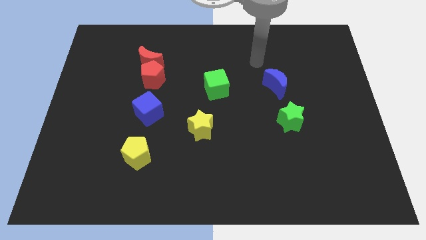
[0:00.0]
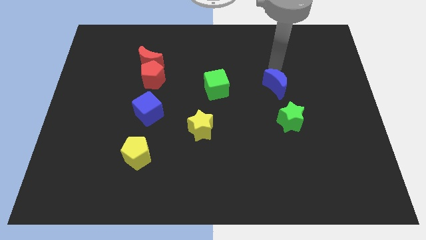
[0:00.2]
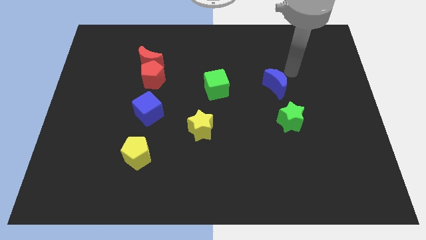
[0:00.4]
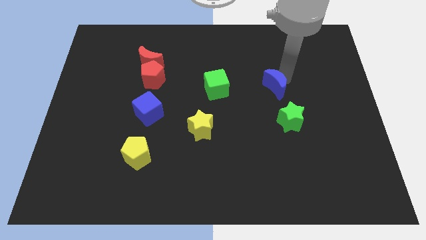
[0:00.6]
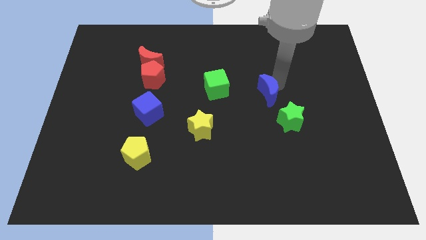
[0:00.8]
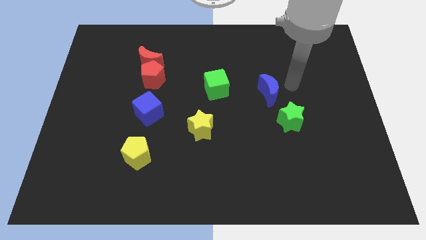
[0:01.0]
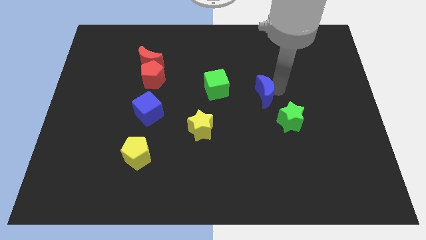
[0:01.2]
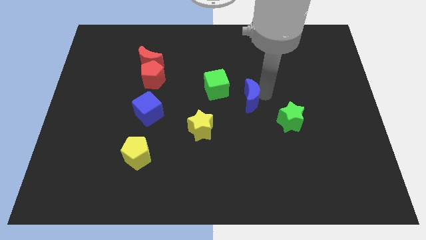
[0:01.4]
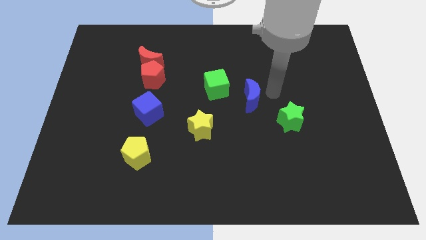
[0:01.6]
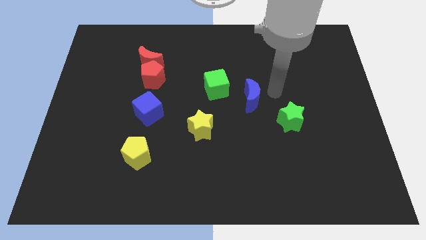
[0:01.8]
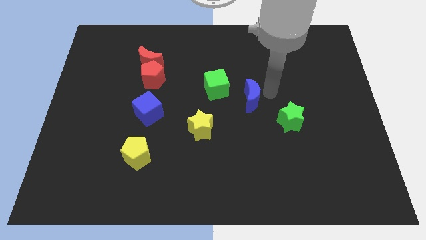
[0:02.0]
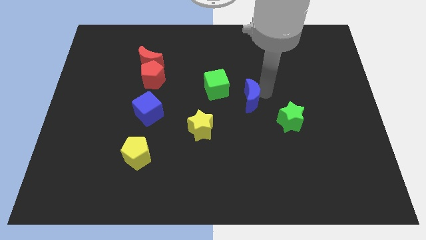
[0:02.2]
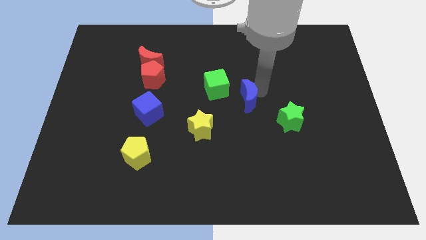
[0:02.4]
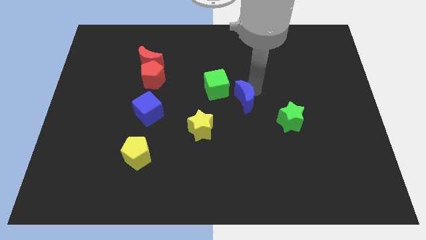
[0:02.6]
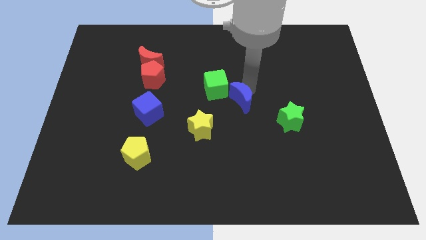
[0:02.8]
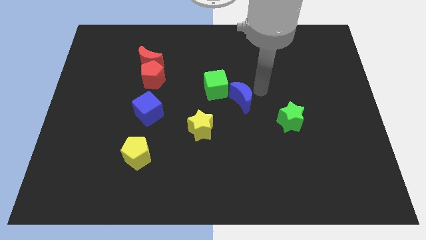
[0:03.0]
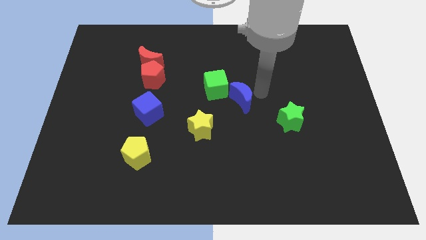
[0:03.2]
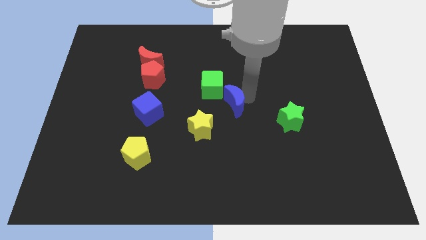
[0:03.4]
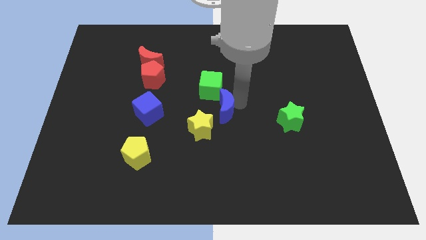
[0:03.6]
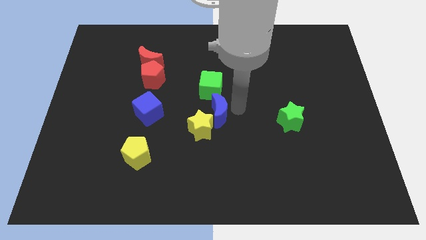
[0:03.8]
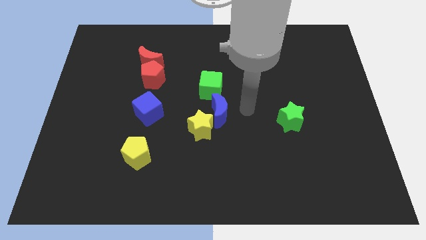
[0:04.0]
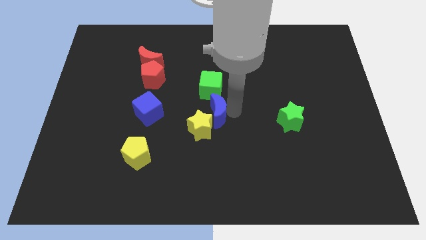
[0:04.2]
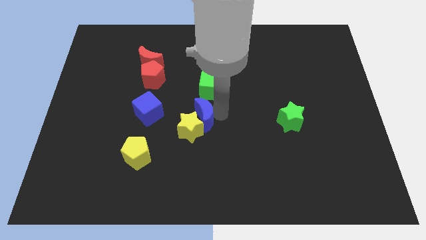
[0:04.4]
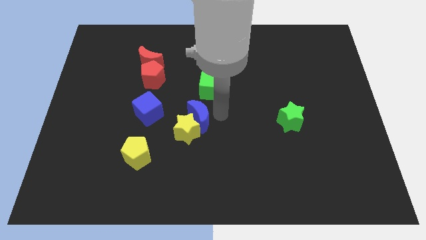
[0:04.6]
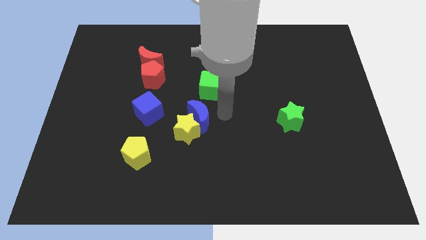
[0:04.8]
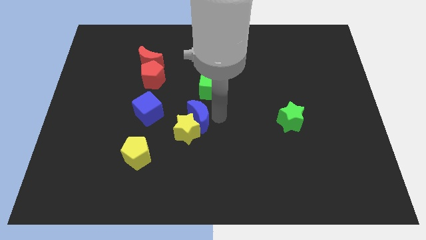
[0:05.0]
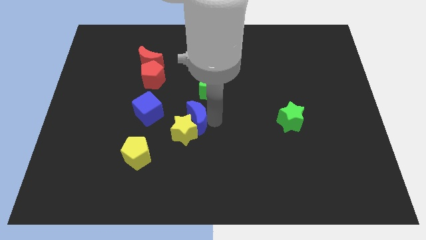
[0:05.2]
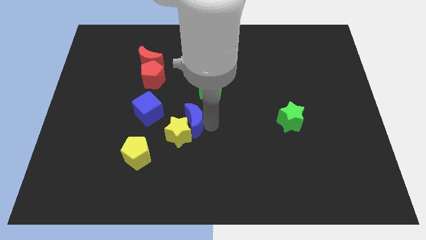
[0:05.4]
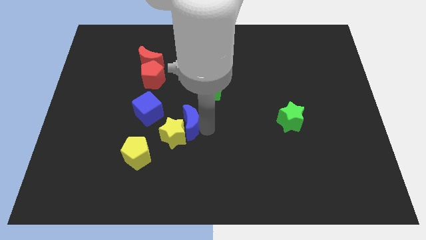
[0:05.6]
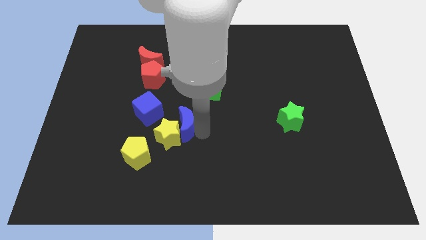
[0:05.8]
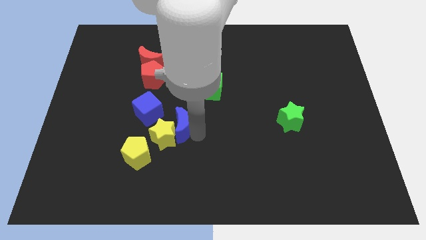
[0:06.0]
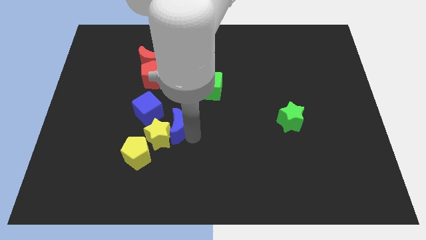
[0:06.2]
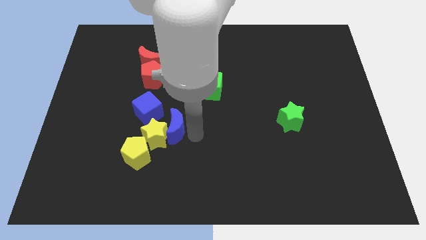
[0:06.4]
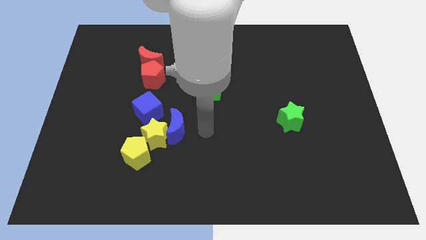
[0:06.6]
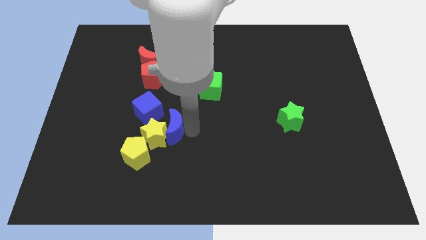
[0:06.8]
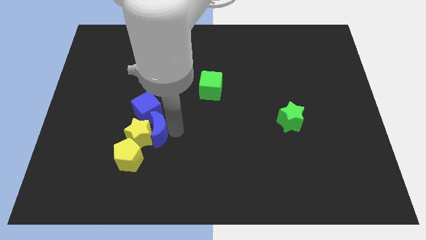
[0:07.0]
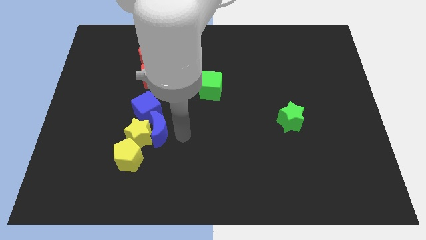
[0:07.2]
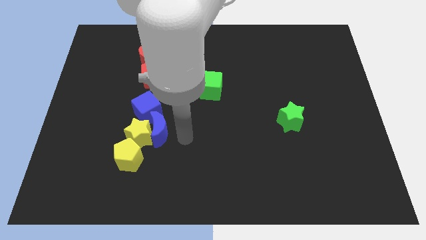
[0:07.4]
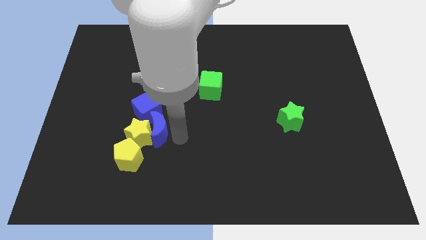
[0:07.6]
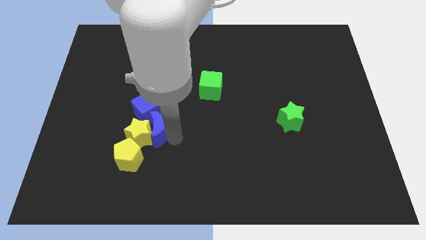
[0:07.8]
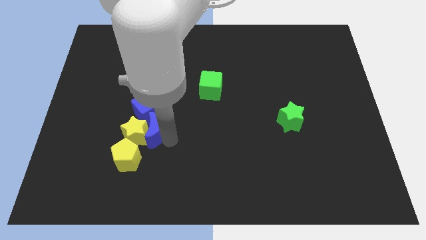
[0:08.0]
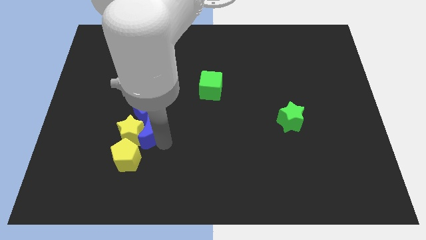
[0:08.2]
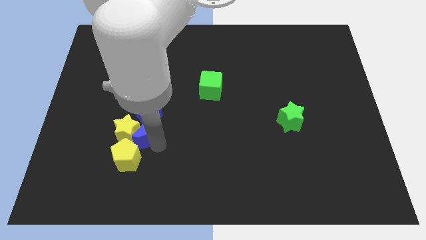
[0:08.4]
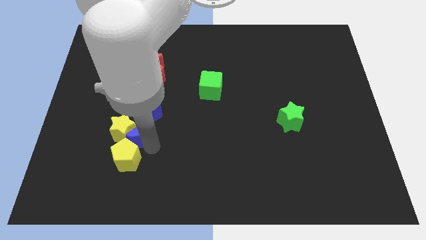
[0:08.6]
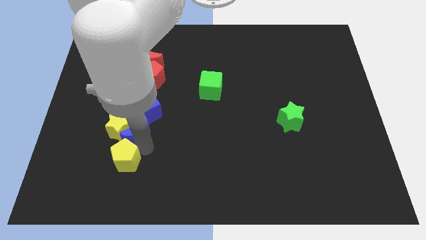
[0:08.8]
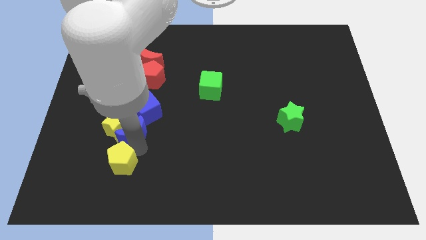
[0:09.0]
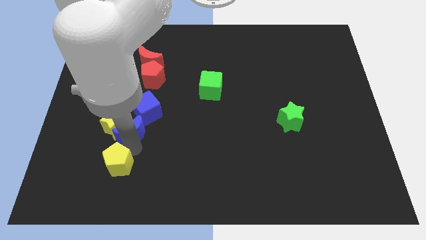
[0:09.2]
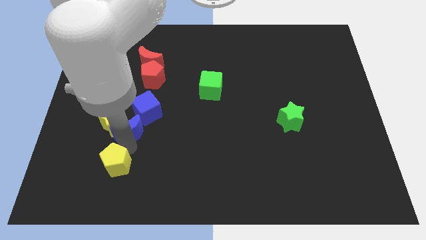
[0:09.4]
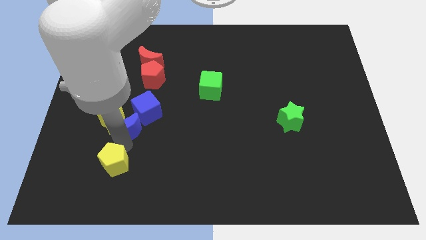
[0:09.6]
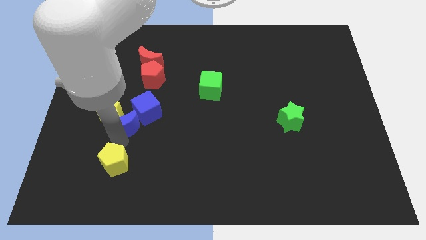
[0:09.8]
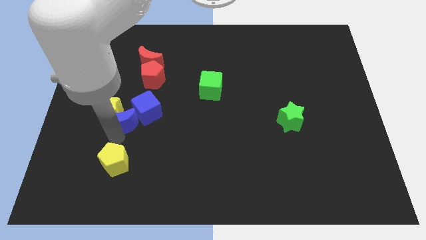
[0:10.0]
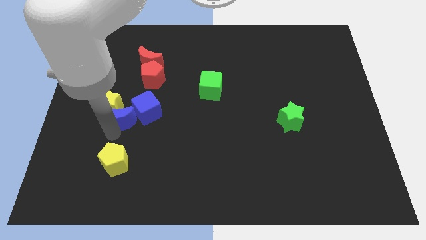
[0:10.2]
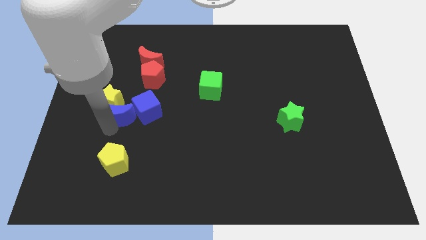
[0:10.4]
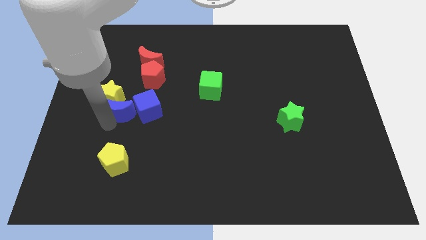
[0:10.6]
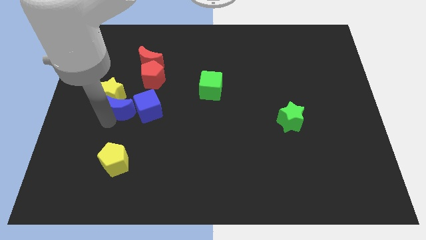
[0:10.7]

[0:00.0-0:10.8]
slide the blue moon to the bottom left side of the red pentagon

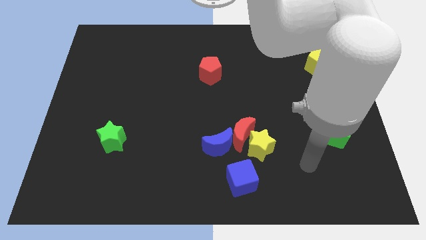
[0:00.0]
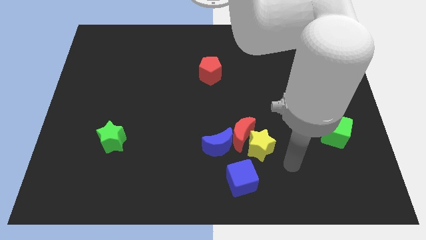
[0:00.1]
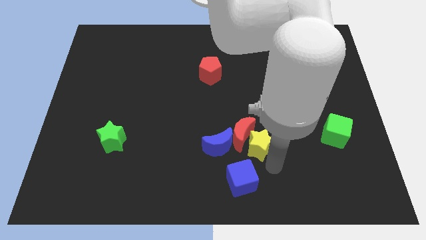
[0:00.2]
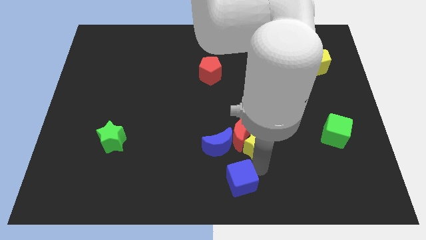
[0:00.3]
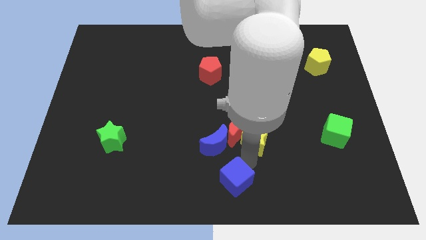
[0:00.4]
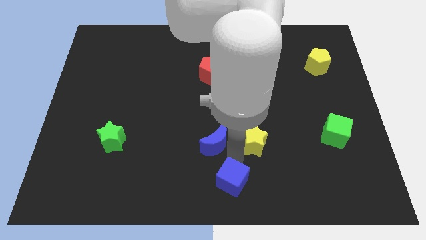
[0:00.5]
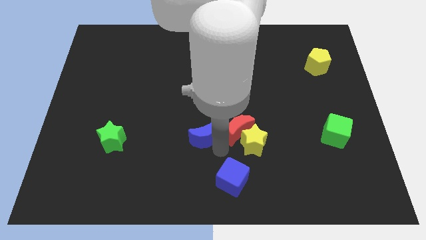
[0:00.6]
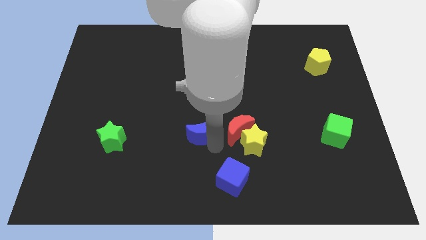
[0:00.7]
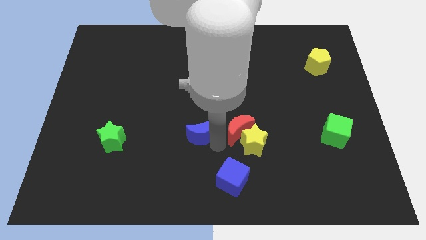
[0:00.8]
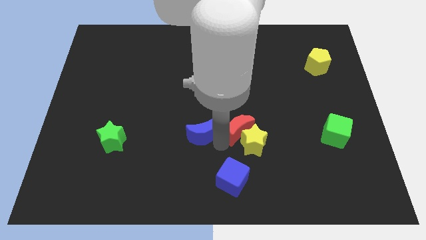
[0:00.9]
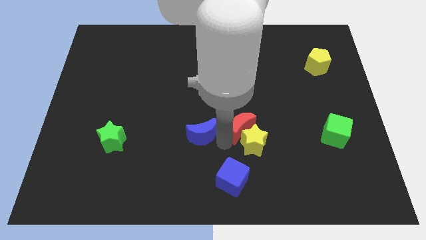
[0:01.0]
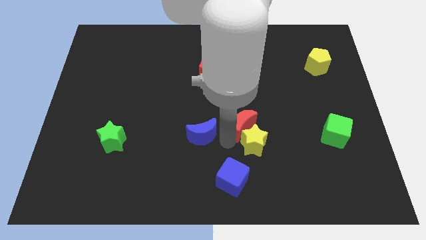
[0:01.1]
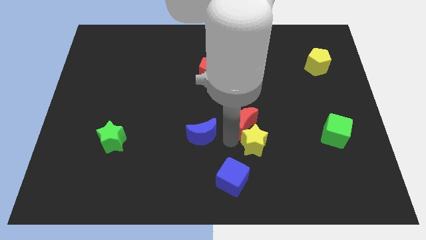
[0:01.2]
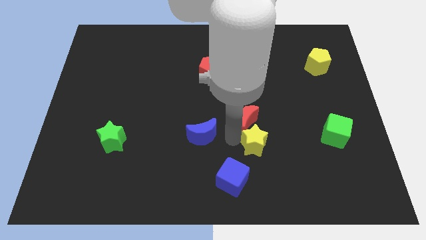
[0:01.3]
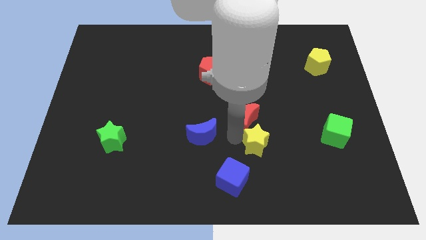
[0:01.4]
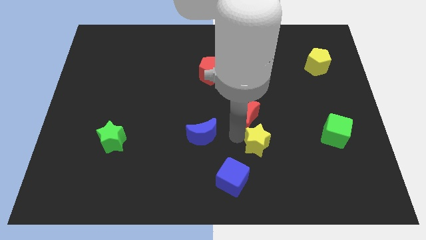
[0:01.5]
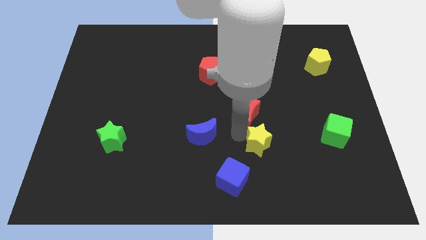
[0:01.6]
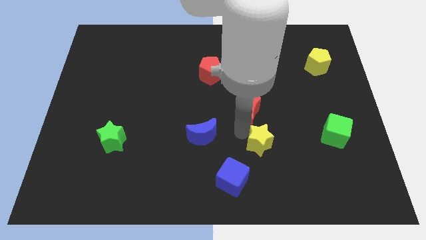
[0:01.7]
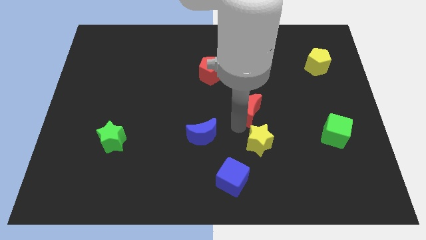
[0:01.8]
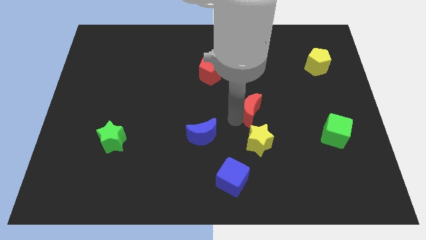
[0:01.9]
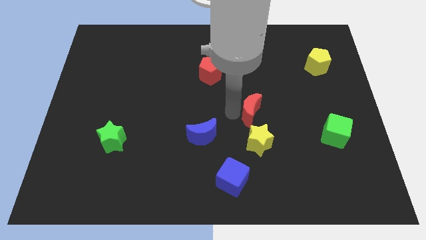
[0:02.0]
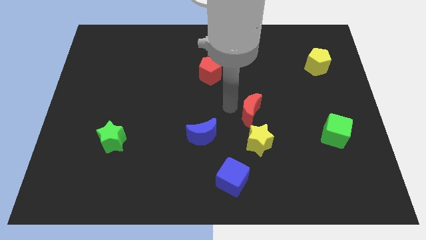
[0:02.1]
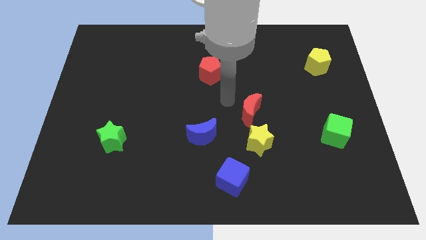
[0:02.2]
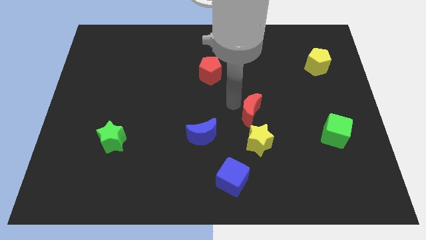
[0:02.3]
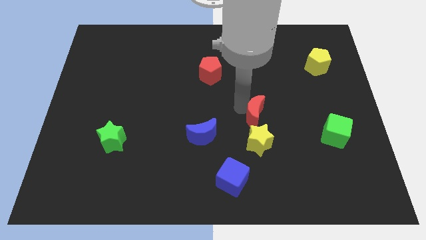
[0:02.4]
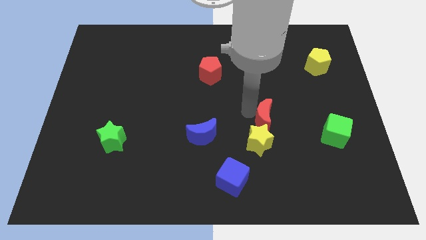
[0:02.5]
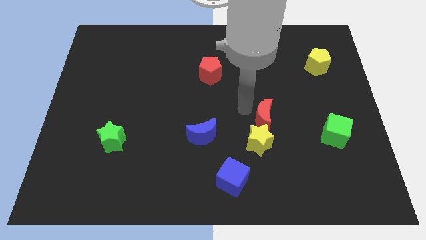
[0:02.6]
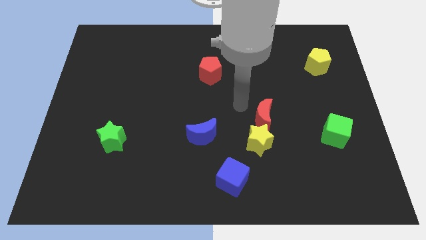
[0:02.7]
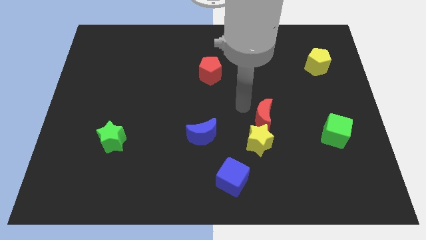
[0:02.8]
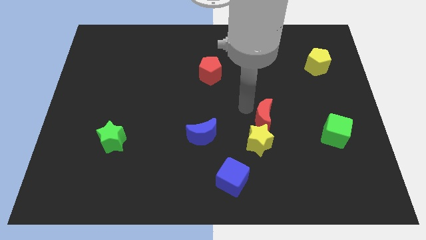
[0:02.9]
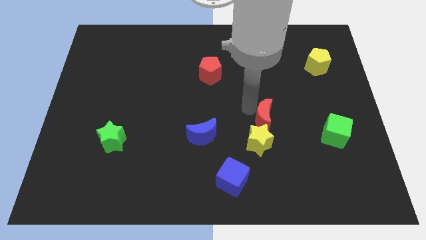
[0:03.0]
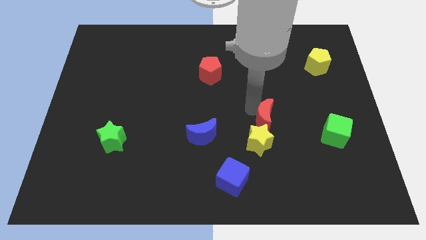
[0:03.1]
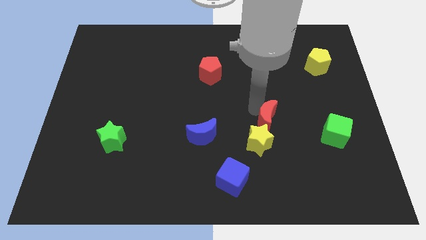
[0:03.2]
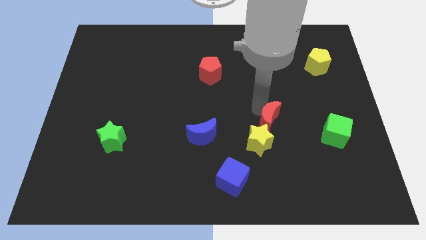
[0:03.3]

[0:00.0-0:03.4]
slide the red moon to the left side of the green cube
